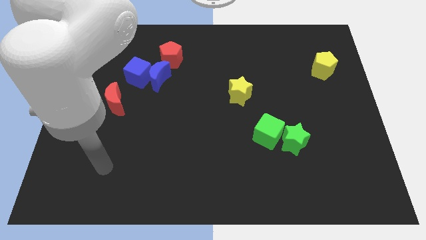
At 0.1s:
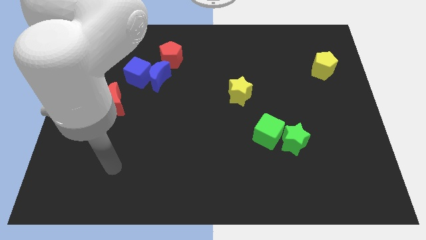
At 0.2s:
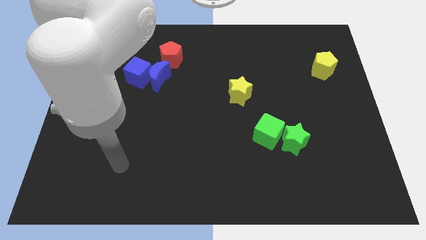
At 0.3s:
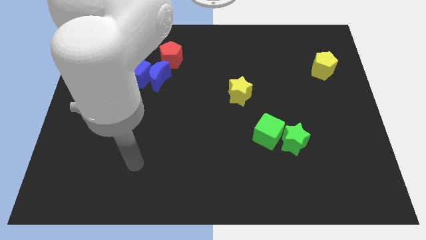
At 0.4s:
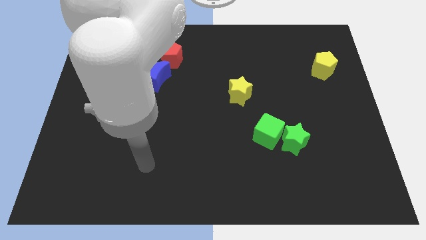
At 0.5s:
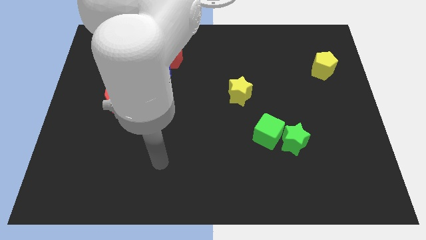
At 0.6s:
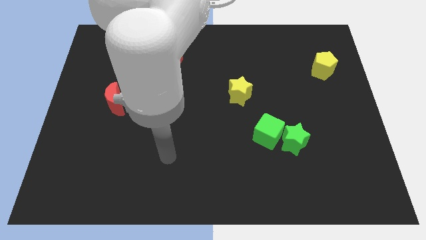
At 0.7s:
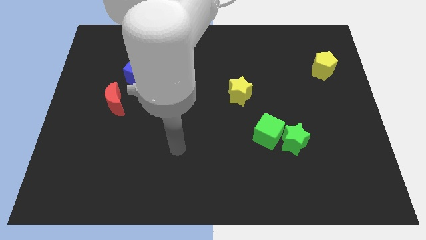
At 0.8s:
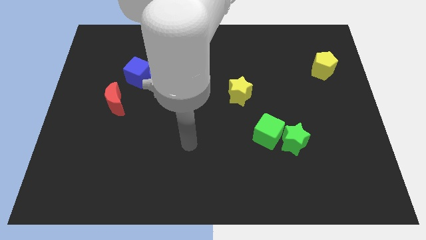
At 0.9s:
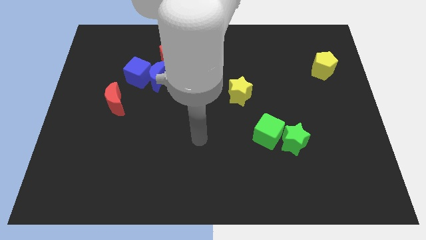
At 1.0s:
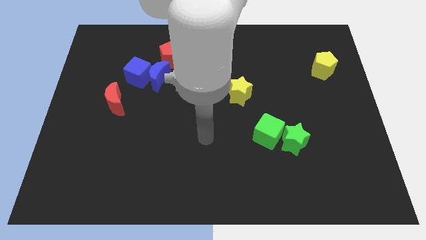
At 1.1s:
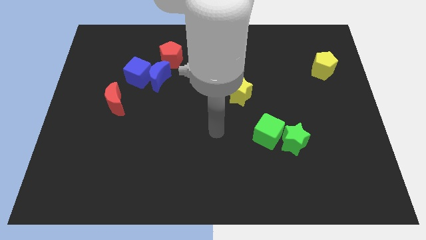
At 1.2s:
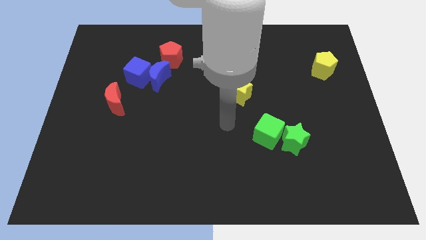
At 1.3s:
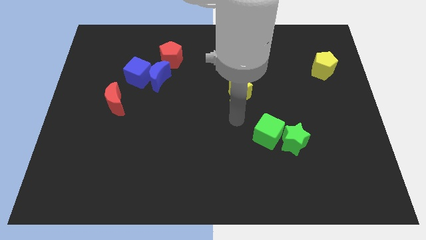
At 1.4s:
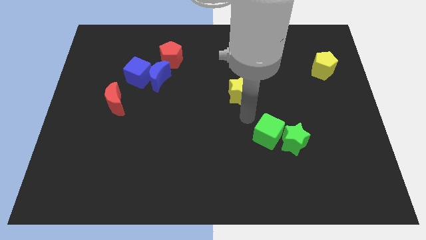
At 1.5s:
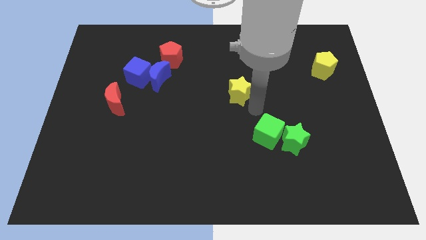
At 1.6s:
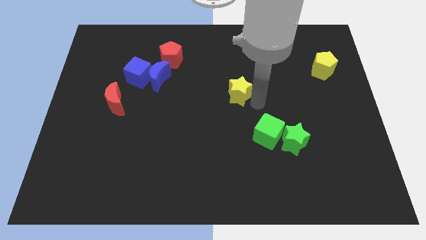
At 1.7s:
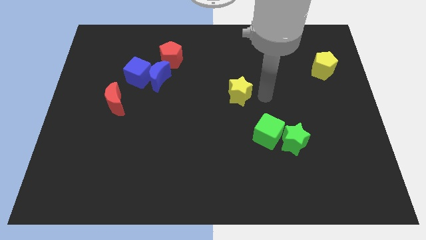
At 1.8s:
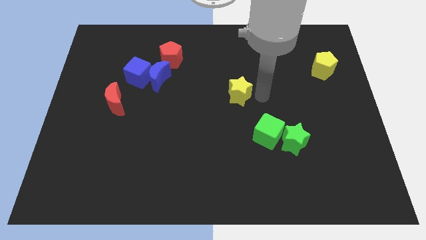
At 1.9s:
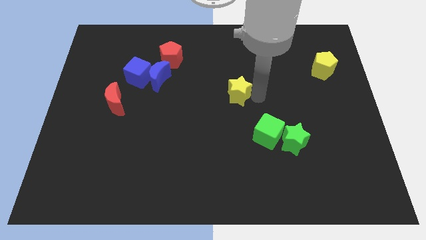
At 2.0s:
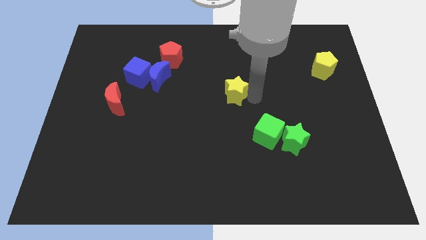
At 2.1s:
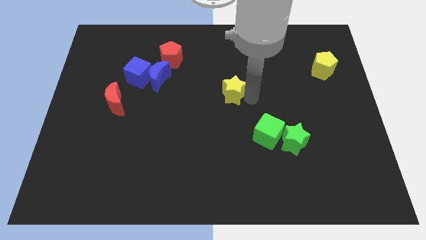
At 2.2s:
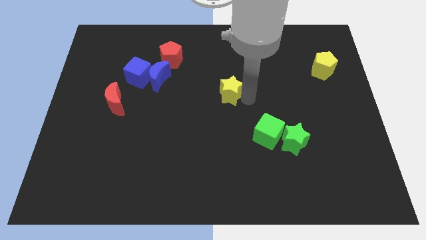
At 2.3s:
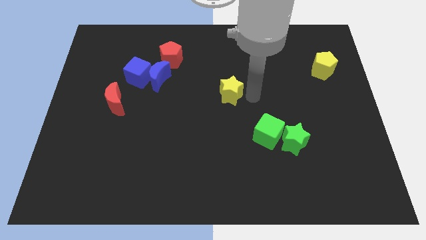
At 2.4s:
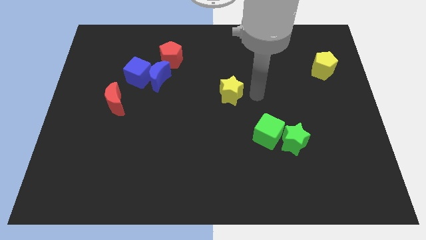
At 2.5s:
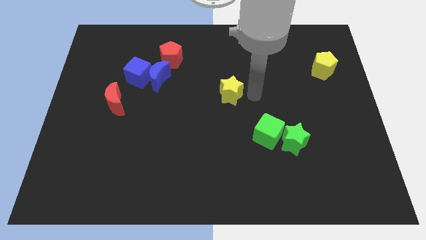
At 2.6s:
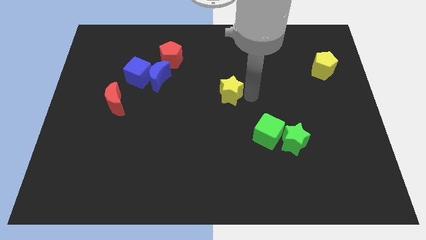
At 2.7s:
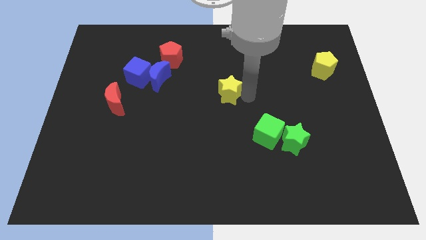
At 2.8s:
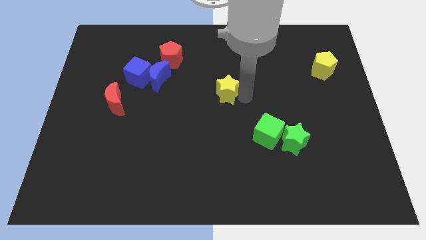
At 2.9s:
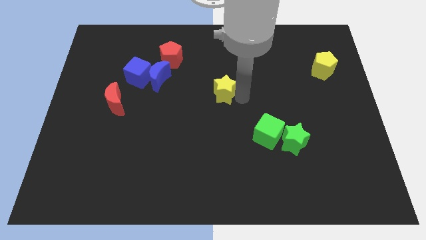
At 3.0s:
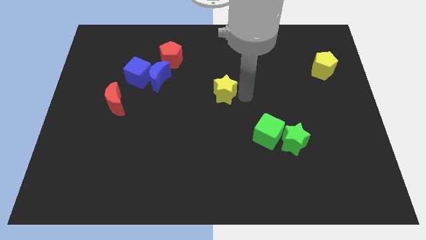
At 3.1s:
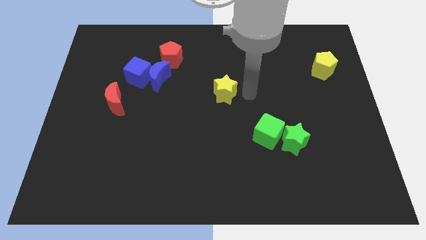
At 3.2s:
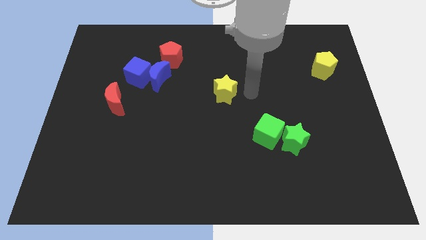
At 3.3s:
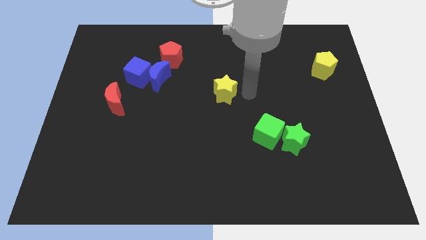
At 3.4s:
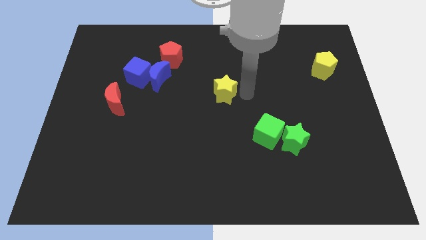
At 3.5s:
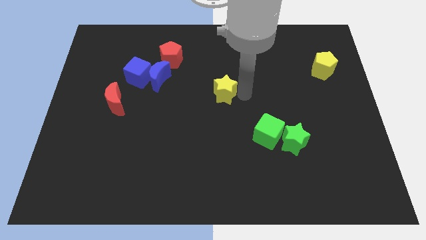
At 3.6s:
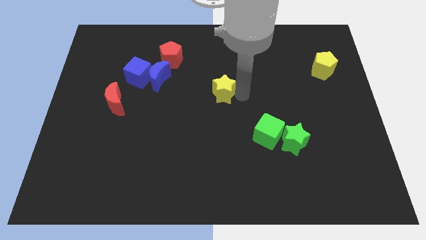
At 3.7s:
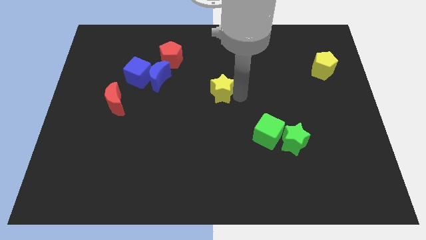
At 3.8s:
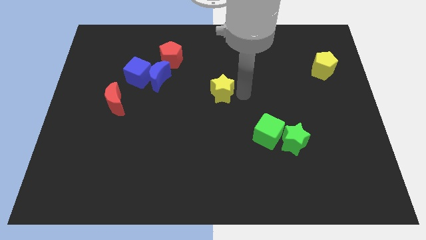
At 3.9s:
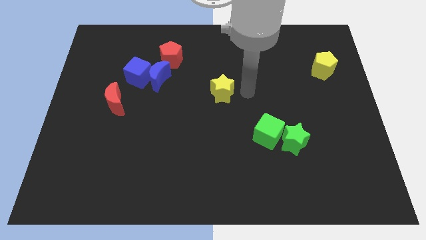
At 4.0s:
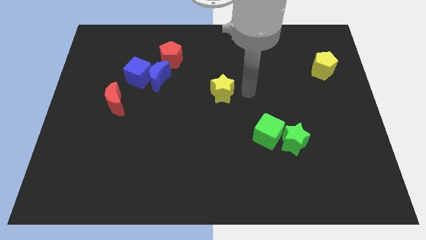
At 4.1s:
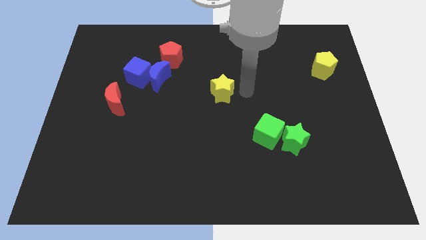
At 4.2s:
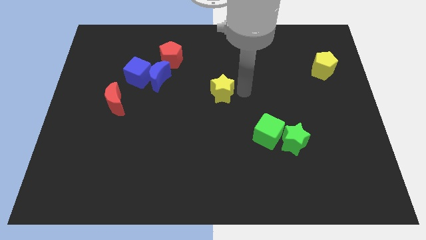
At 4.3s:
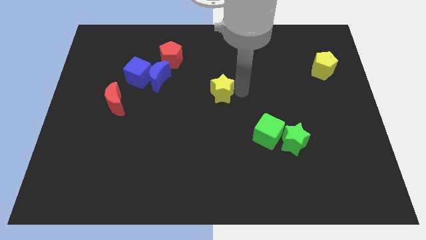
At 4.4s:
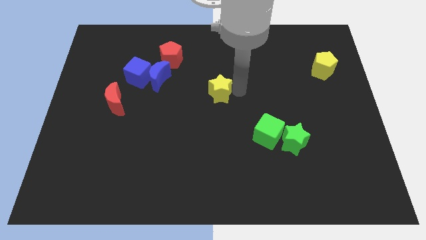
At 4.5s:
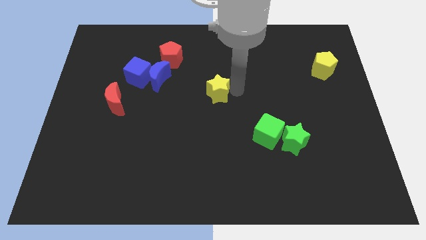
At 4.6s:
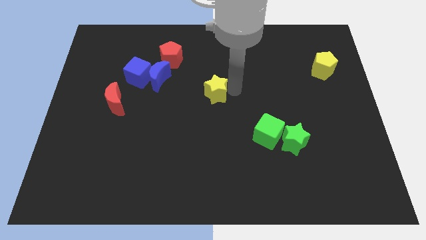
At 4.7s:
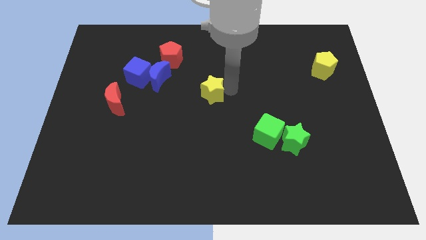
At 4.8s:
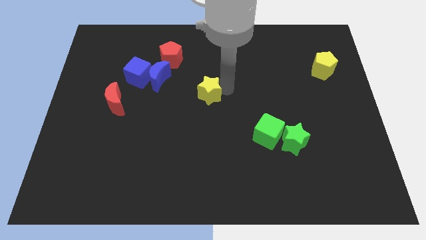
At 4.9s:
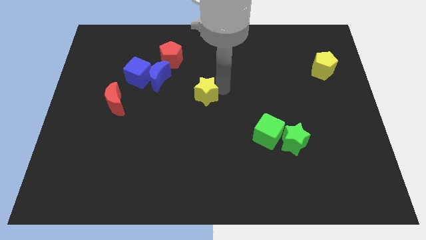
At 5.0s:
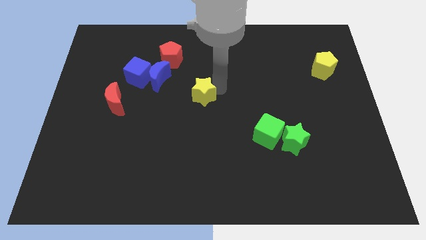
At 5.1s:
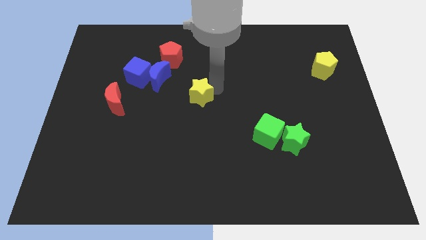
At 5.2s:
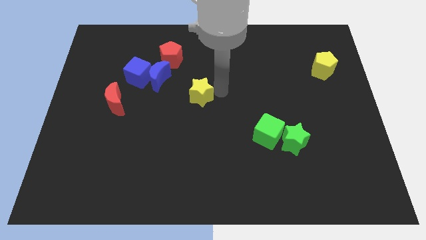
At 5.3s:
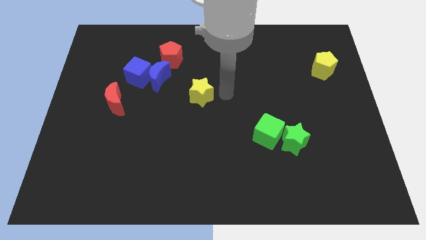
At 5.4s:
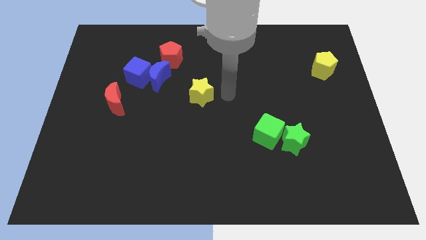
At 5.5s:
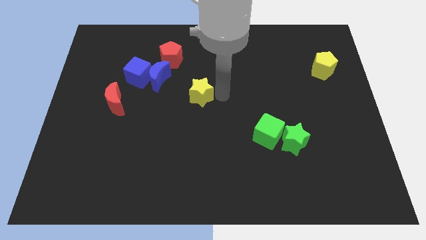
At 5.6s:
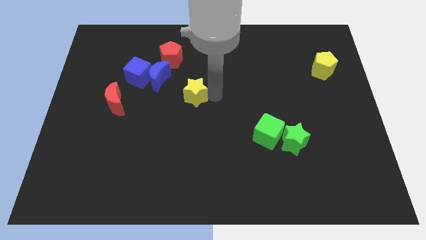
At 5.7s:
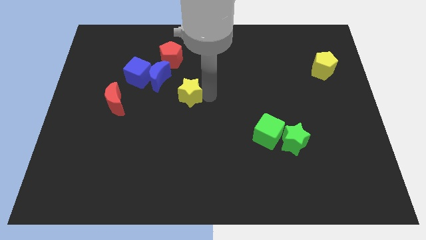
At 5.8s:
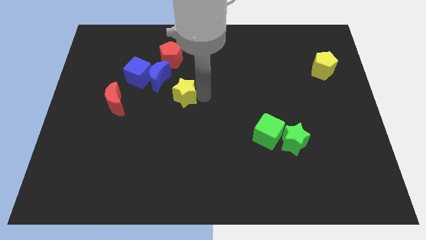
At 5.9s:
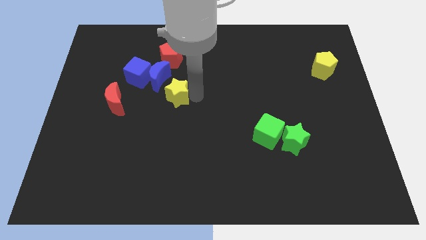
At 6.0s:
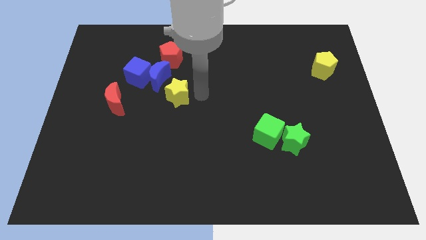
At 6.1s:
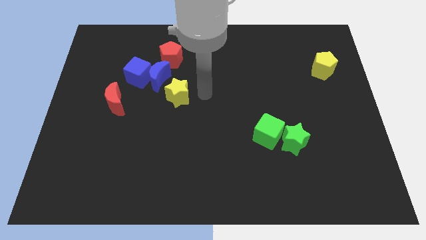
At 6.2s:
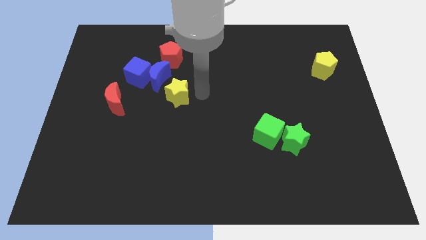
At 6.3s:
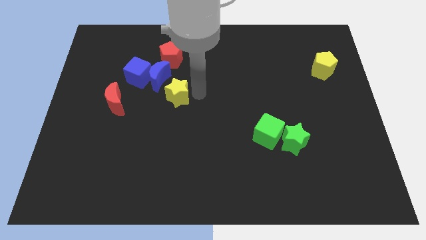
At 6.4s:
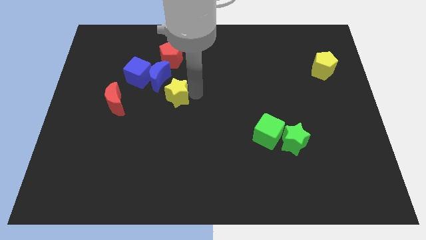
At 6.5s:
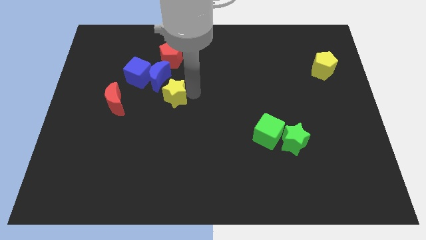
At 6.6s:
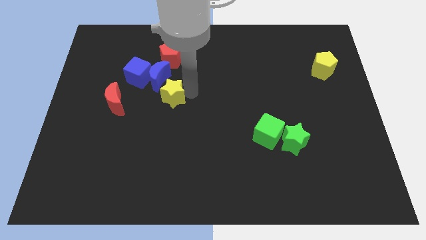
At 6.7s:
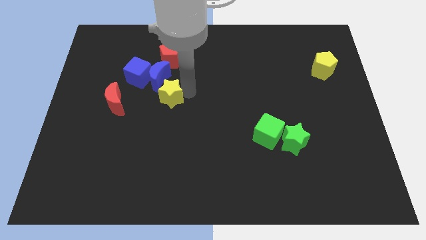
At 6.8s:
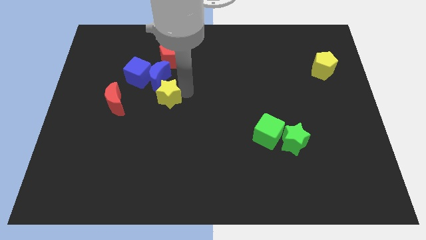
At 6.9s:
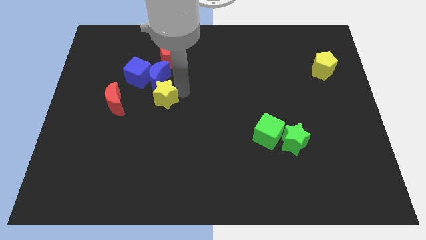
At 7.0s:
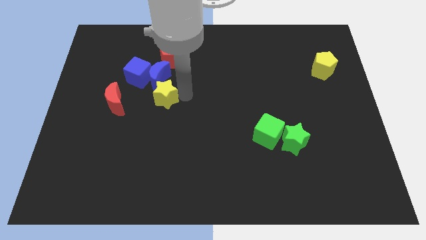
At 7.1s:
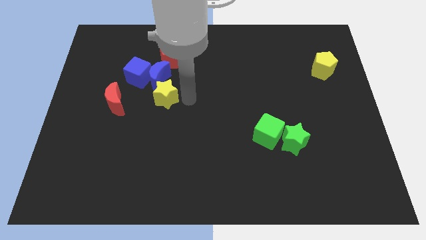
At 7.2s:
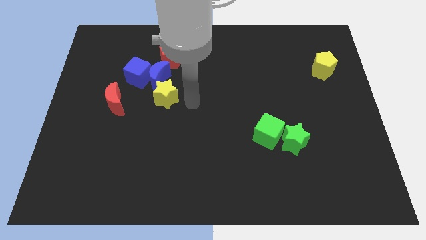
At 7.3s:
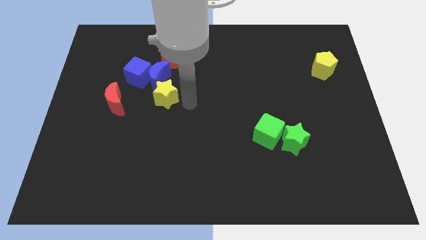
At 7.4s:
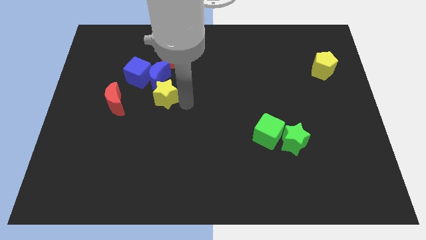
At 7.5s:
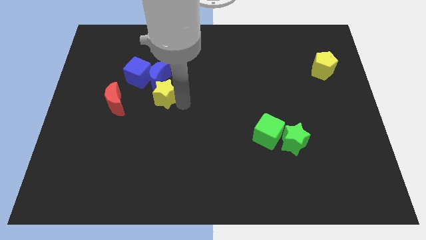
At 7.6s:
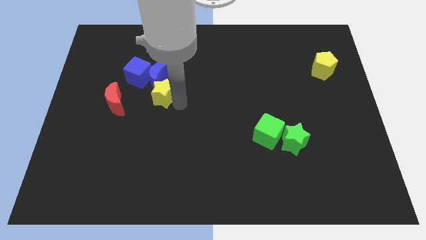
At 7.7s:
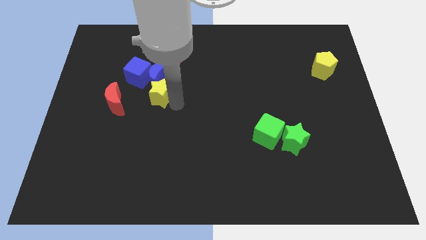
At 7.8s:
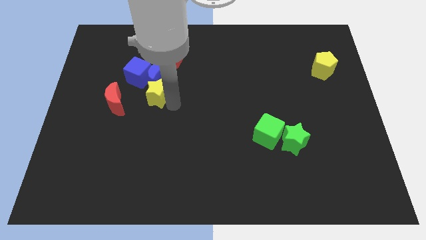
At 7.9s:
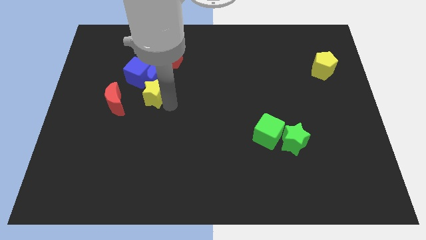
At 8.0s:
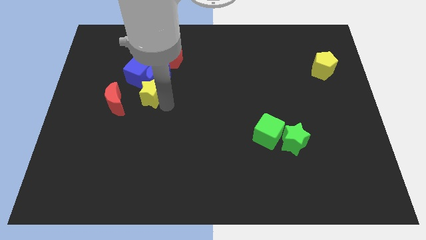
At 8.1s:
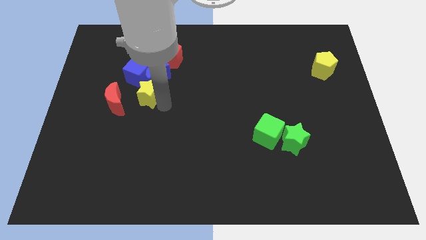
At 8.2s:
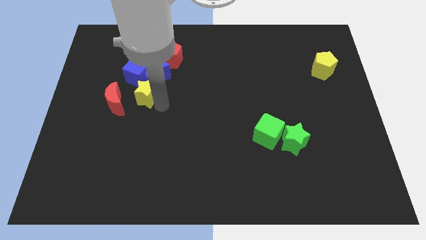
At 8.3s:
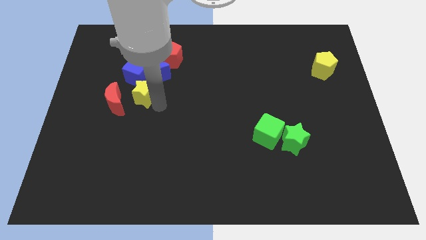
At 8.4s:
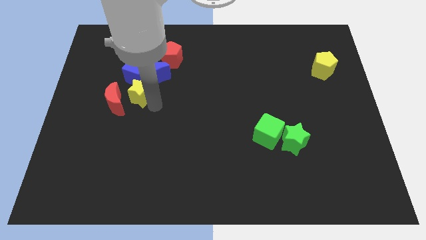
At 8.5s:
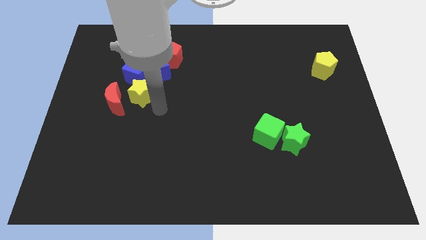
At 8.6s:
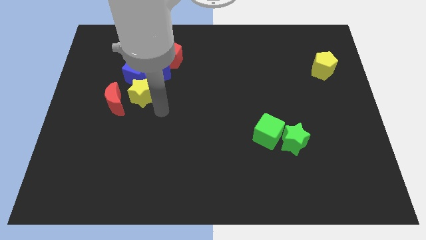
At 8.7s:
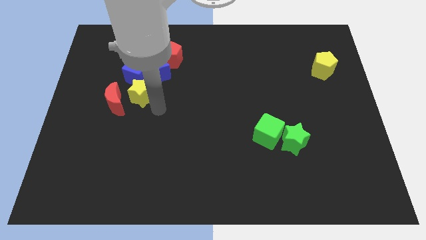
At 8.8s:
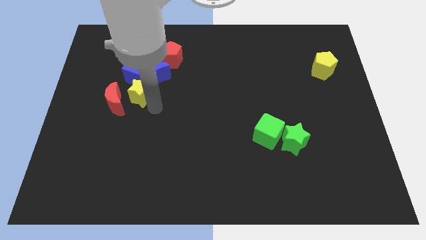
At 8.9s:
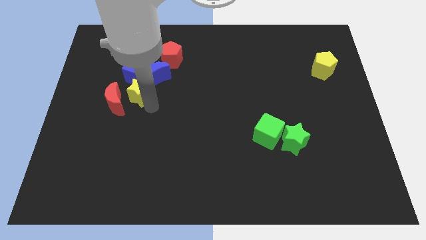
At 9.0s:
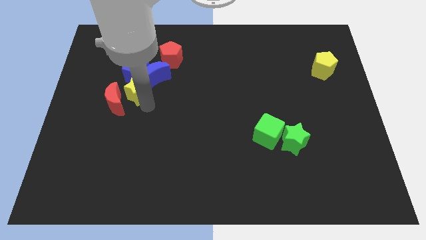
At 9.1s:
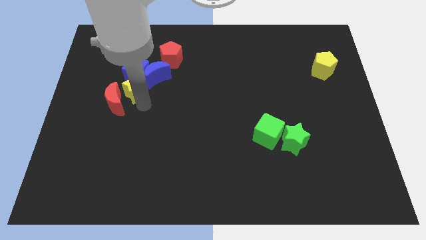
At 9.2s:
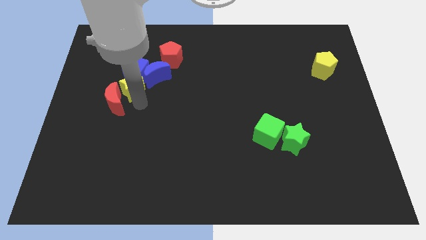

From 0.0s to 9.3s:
put the yellow star just left of the blue moon
